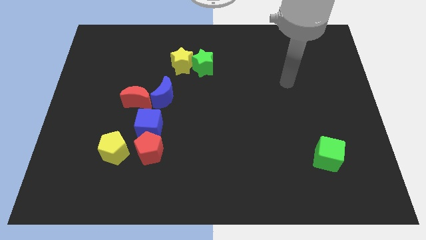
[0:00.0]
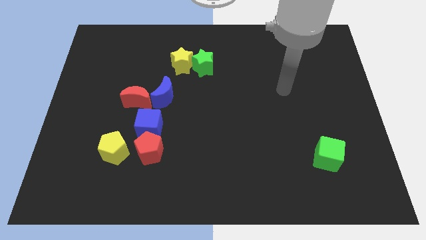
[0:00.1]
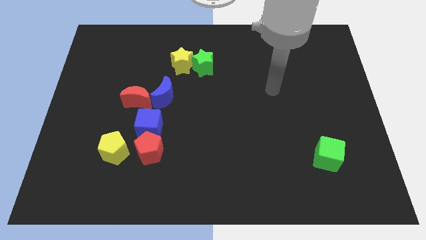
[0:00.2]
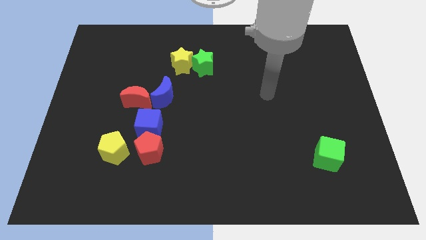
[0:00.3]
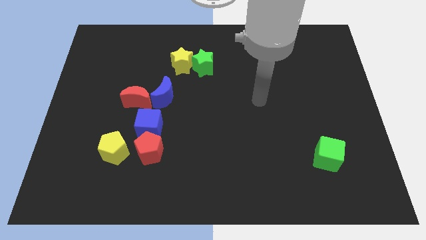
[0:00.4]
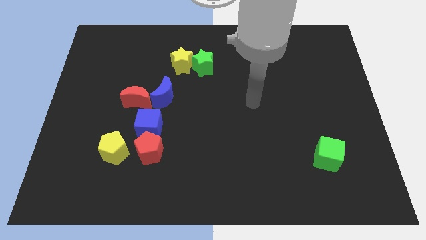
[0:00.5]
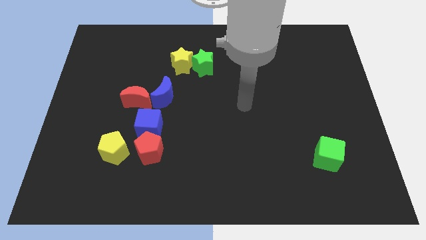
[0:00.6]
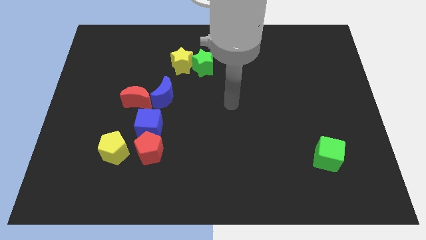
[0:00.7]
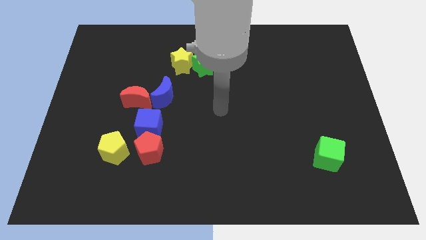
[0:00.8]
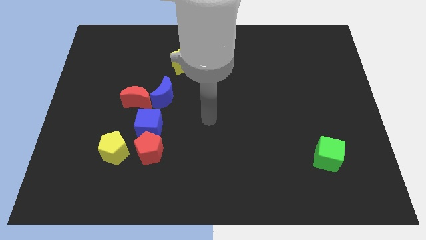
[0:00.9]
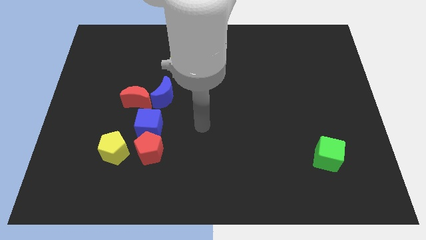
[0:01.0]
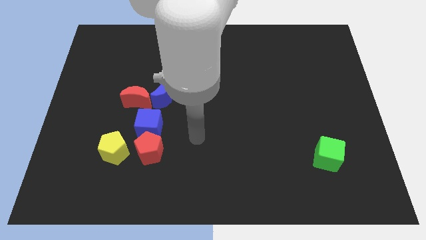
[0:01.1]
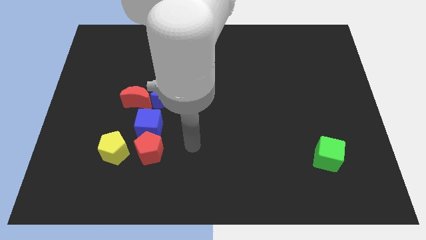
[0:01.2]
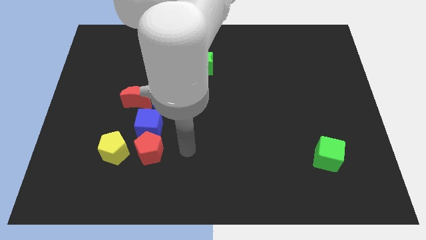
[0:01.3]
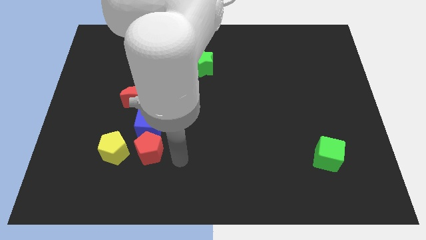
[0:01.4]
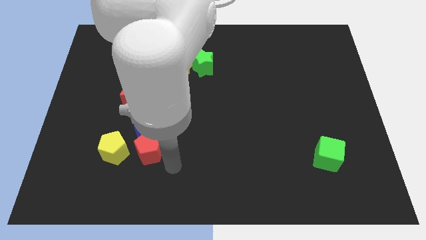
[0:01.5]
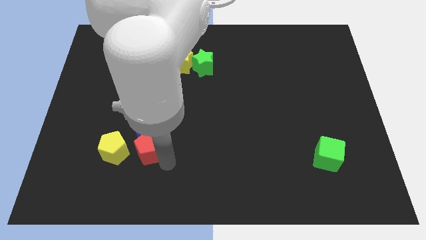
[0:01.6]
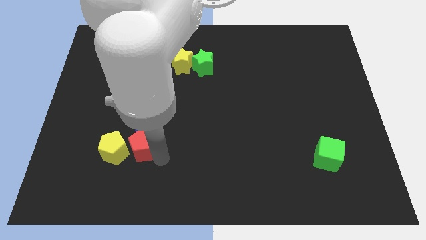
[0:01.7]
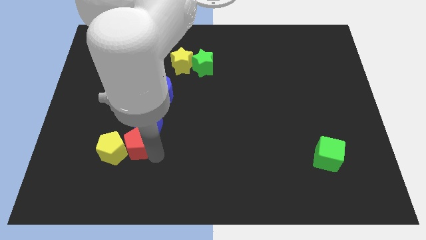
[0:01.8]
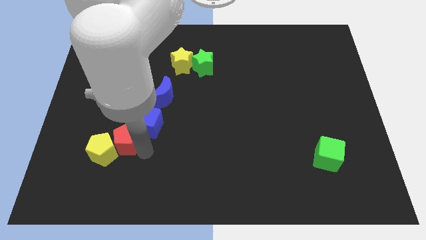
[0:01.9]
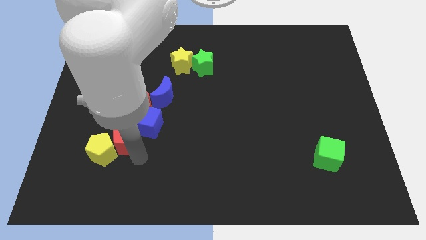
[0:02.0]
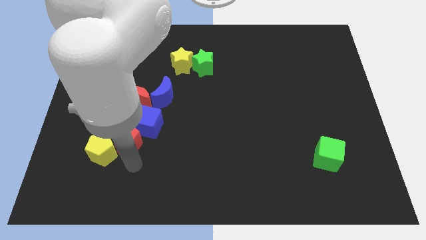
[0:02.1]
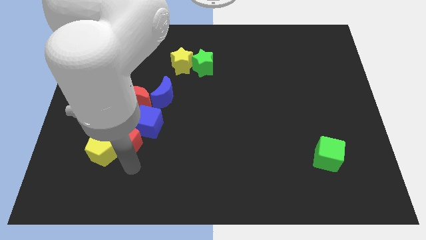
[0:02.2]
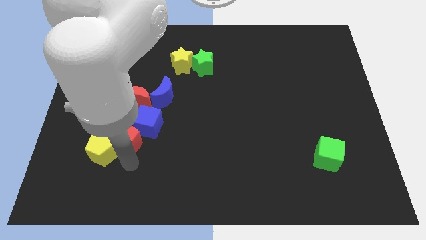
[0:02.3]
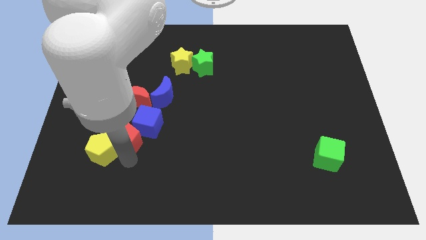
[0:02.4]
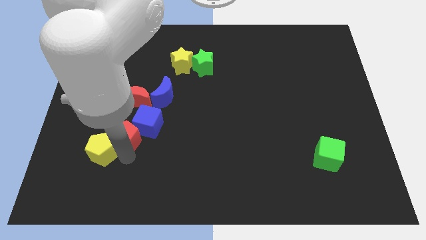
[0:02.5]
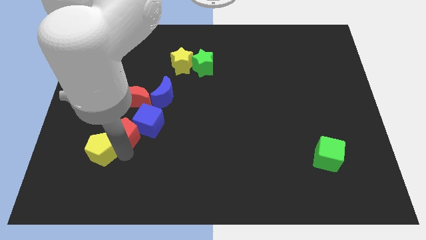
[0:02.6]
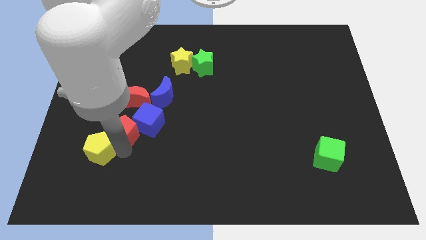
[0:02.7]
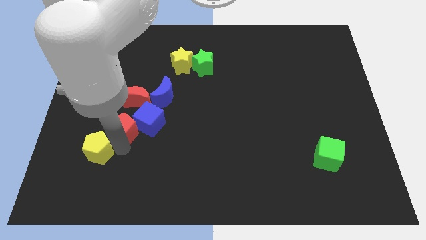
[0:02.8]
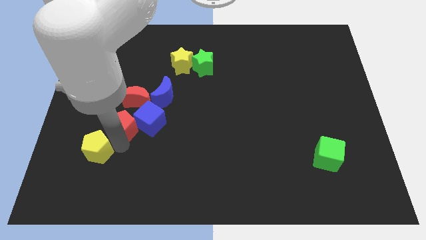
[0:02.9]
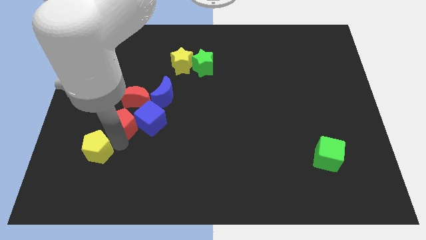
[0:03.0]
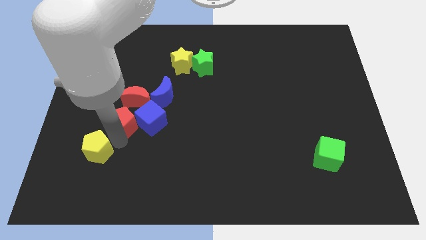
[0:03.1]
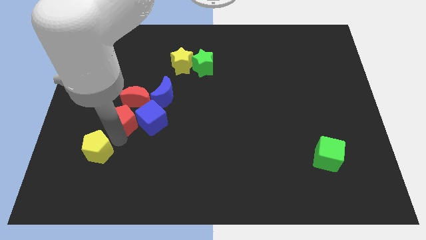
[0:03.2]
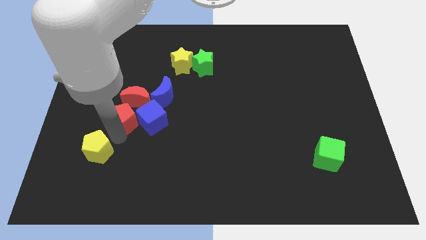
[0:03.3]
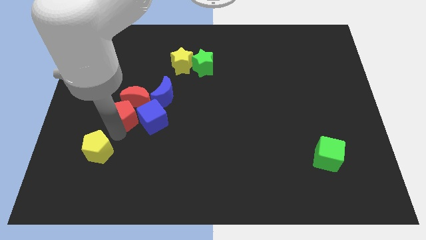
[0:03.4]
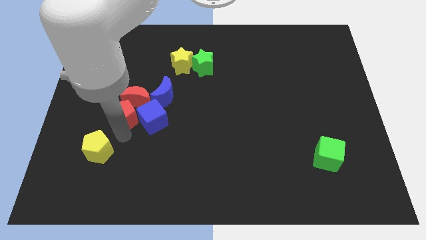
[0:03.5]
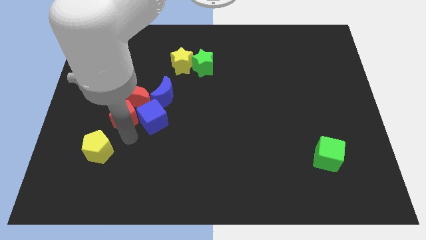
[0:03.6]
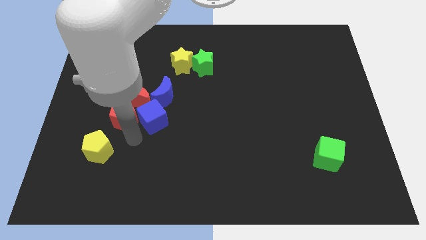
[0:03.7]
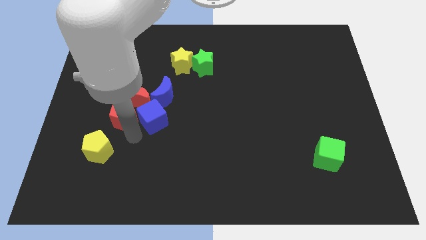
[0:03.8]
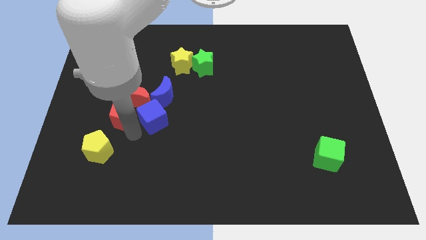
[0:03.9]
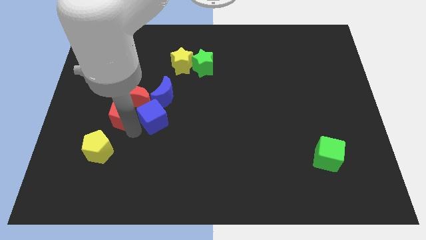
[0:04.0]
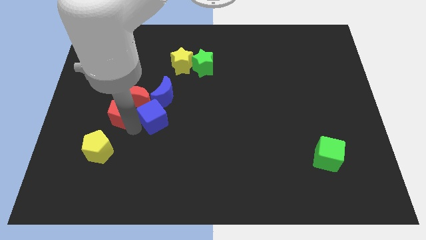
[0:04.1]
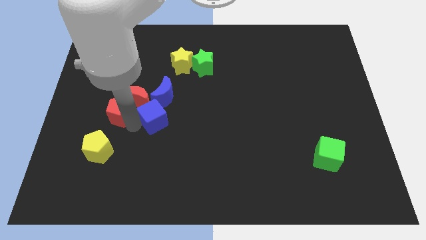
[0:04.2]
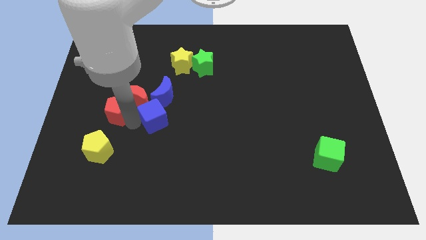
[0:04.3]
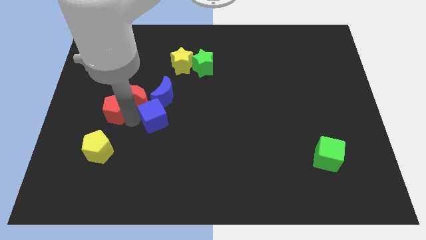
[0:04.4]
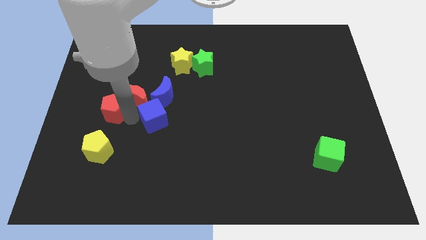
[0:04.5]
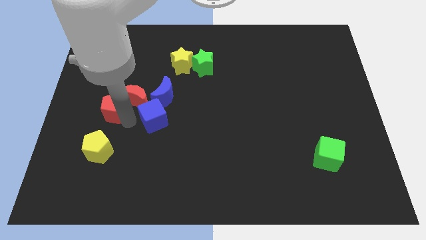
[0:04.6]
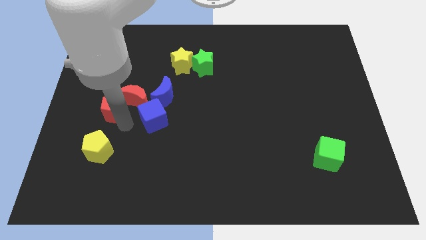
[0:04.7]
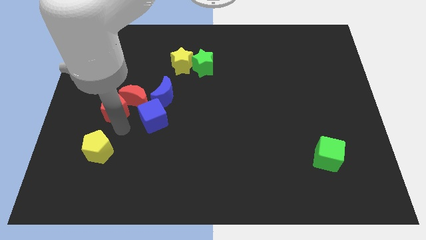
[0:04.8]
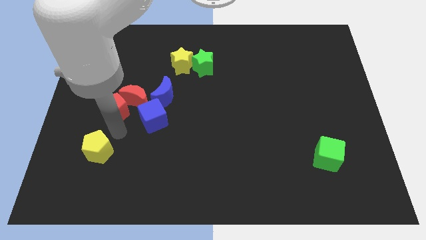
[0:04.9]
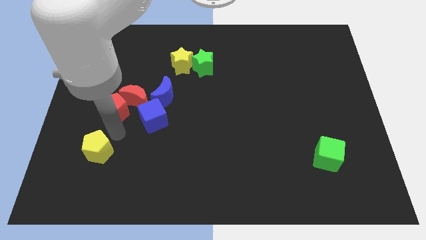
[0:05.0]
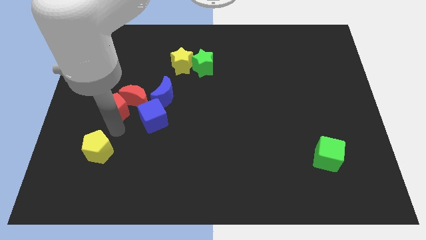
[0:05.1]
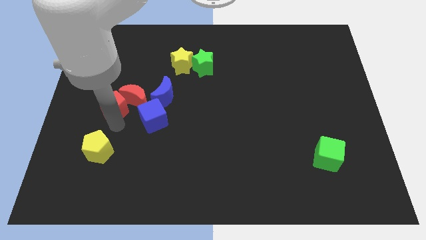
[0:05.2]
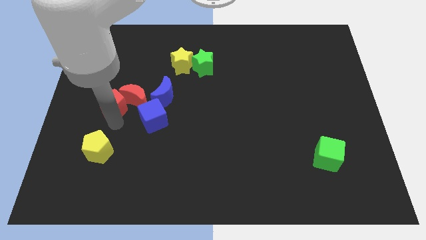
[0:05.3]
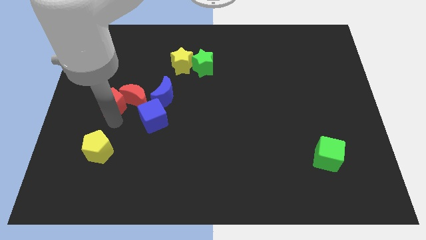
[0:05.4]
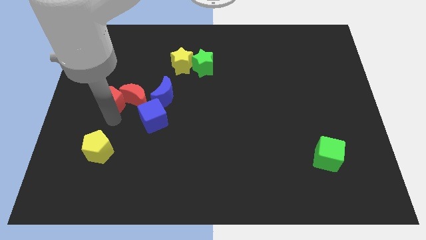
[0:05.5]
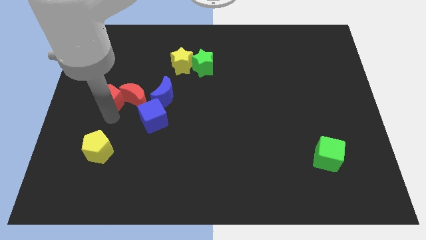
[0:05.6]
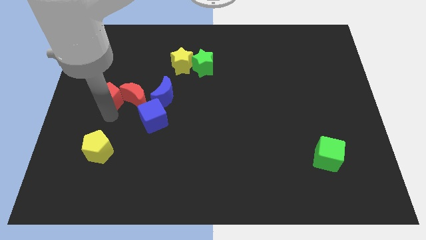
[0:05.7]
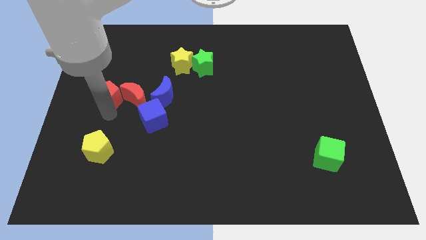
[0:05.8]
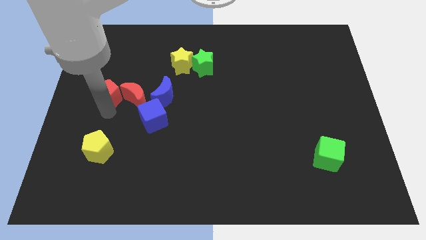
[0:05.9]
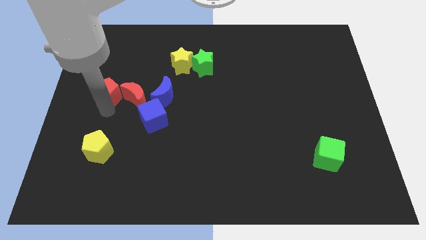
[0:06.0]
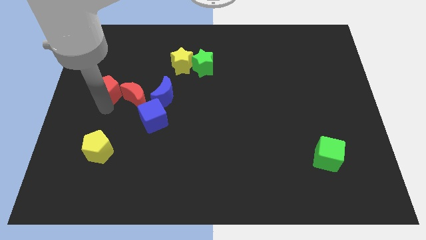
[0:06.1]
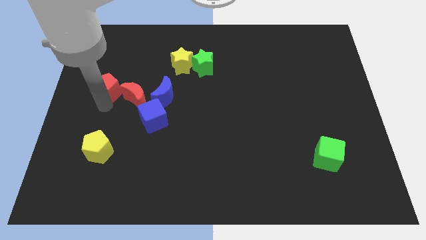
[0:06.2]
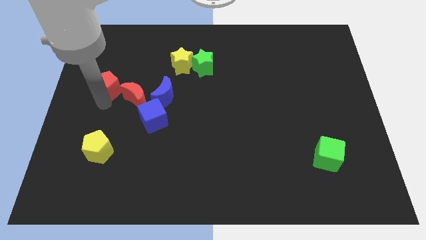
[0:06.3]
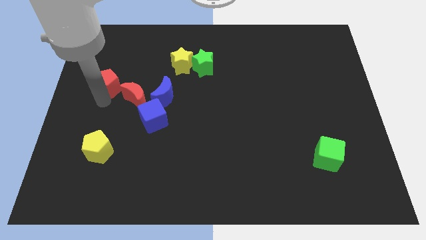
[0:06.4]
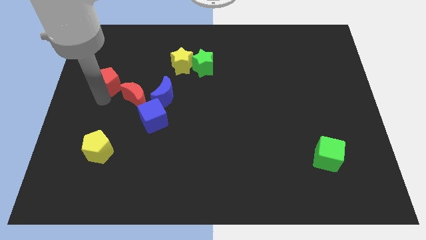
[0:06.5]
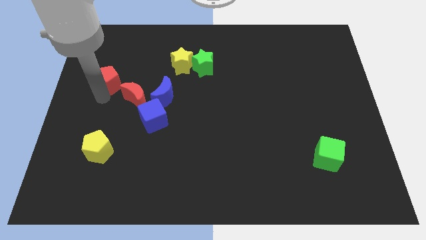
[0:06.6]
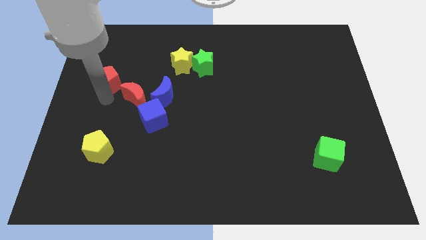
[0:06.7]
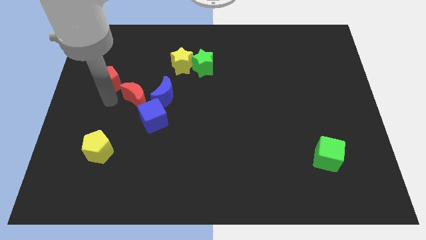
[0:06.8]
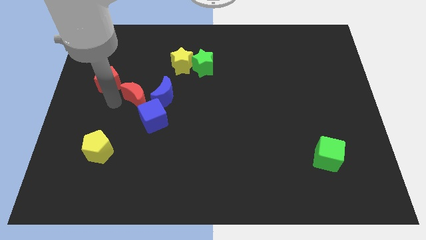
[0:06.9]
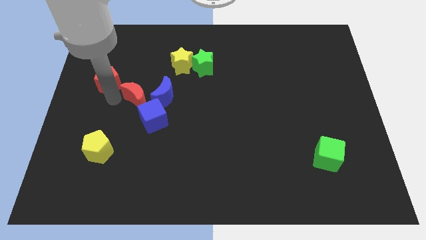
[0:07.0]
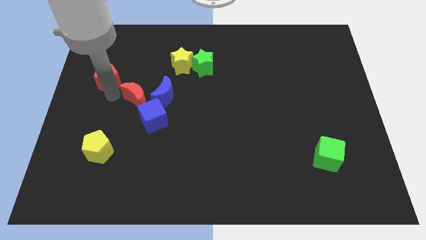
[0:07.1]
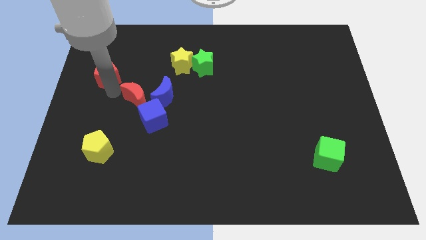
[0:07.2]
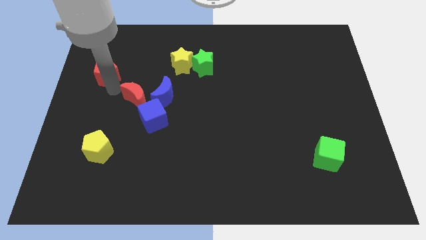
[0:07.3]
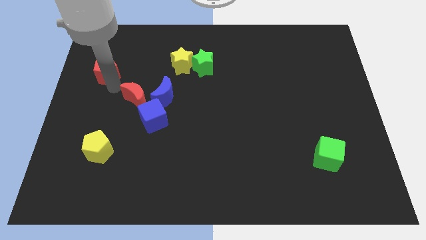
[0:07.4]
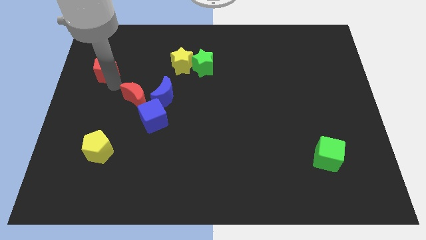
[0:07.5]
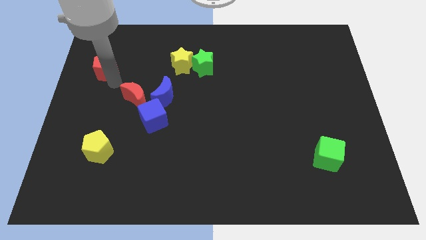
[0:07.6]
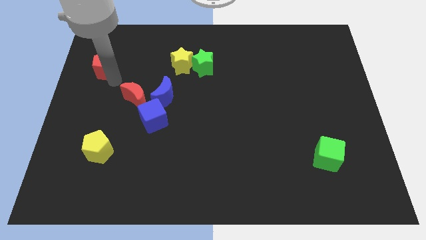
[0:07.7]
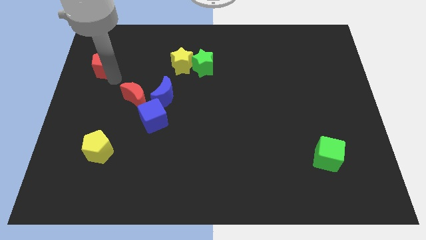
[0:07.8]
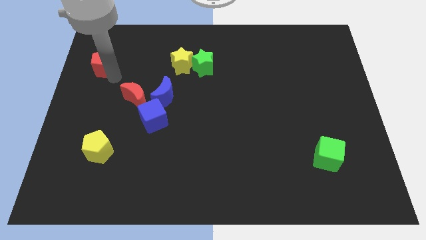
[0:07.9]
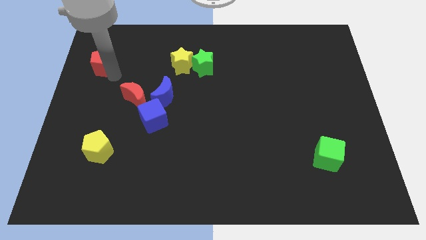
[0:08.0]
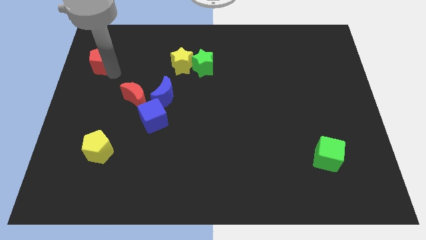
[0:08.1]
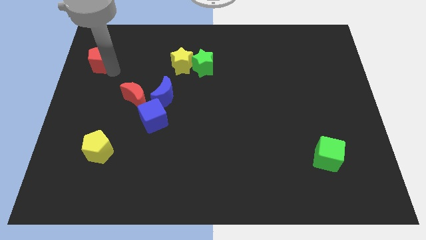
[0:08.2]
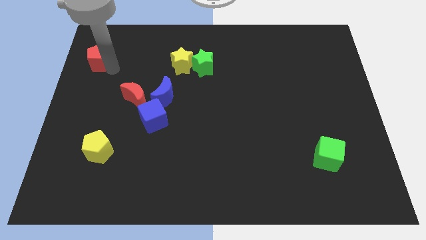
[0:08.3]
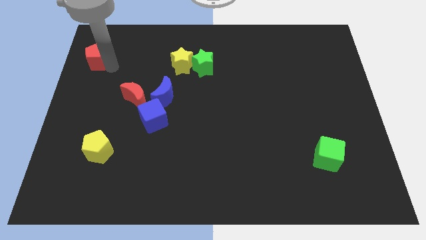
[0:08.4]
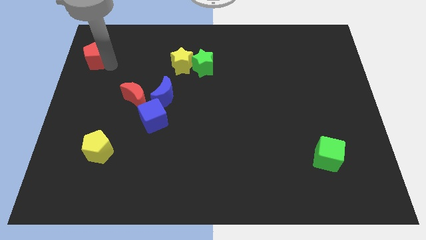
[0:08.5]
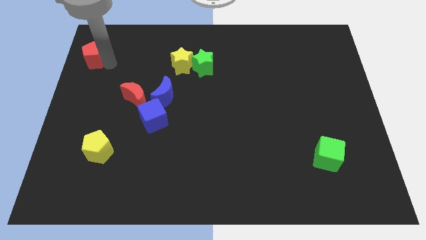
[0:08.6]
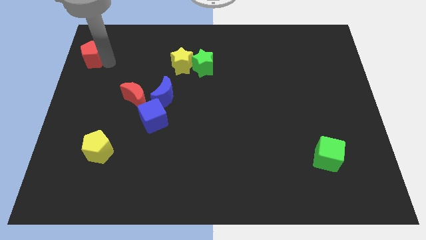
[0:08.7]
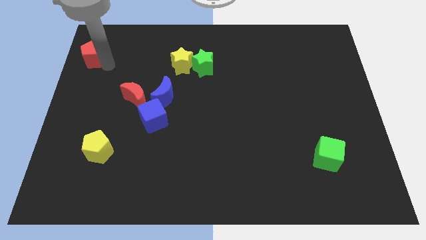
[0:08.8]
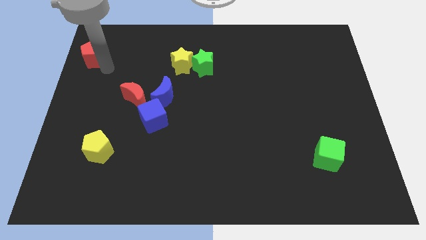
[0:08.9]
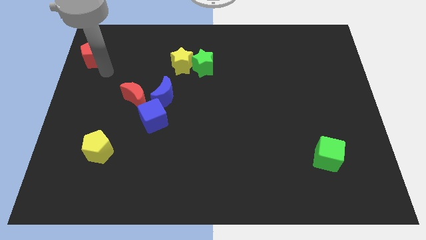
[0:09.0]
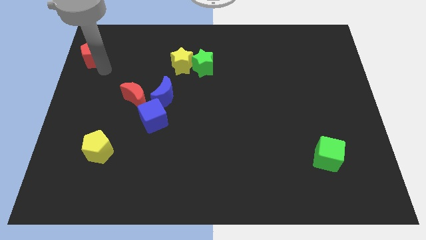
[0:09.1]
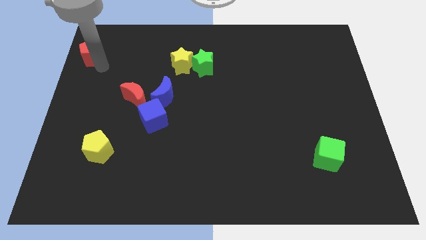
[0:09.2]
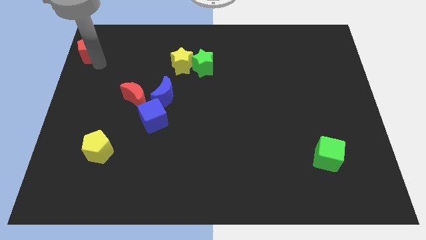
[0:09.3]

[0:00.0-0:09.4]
move the red pentagon to the top left of the board
